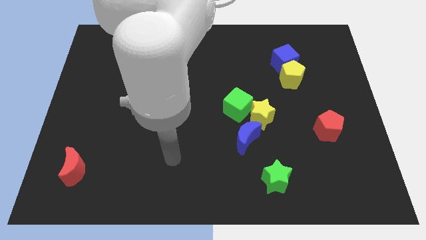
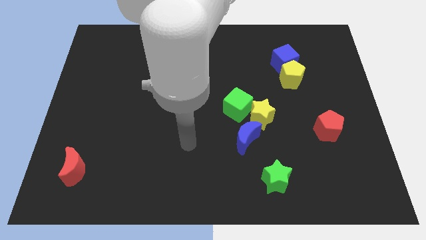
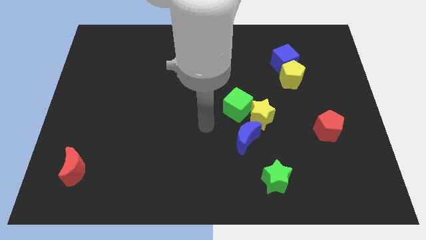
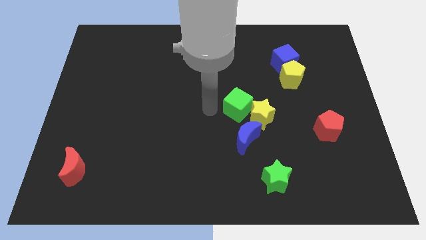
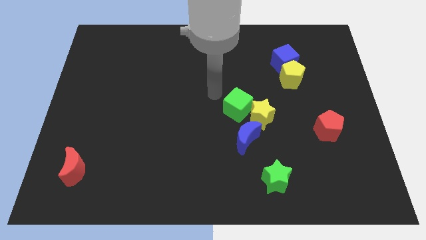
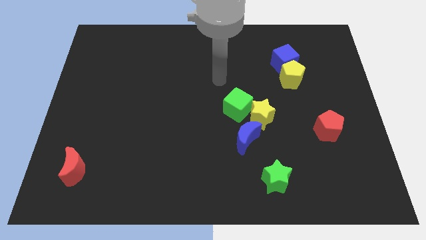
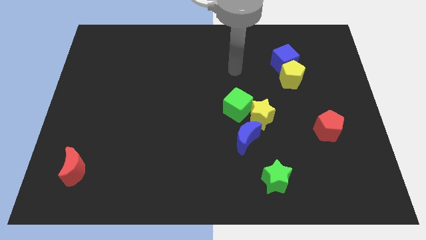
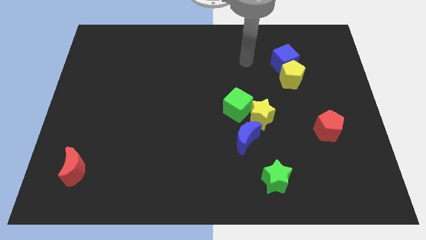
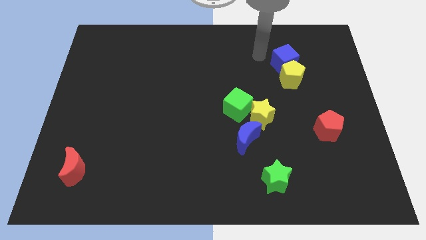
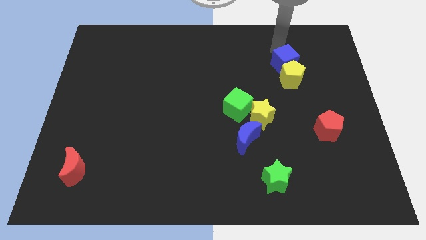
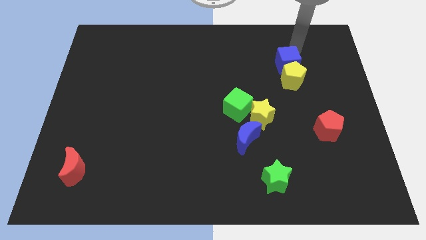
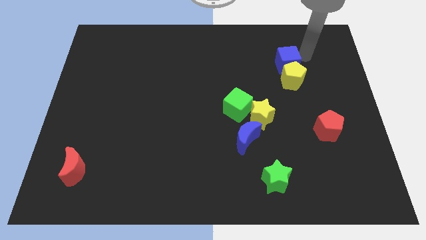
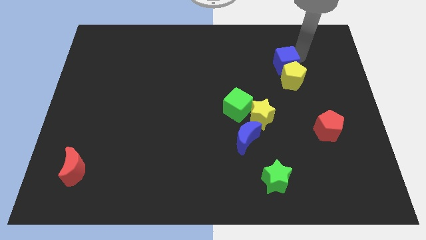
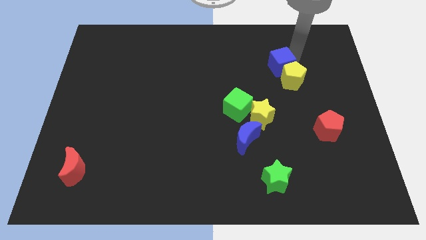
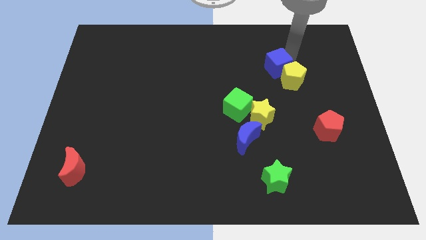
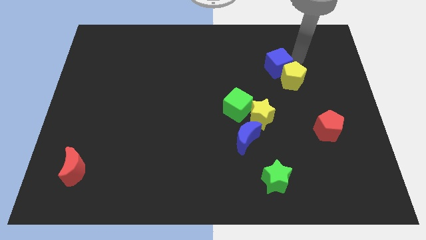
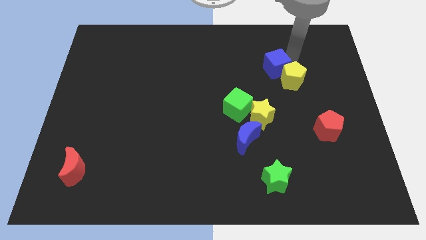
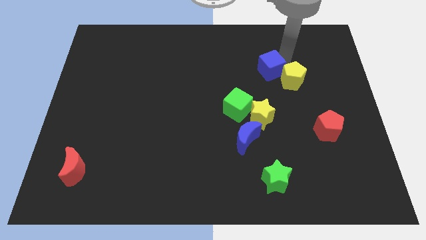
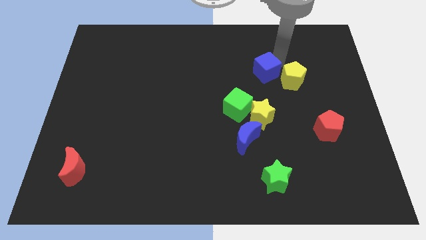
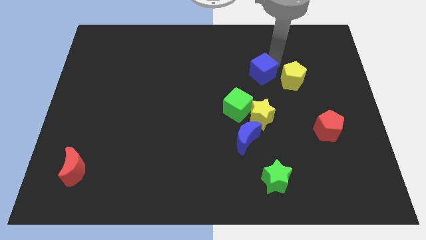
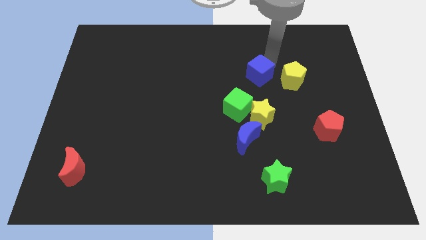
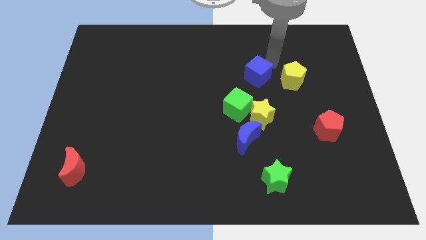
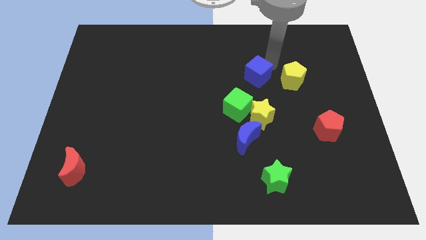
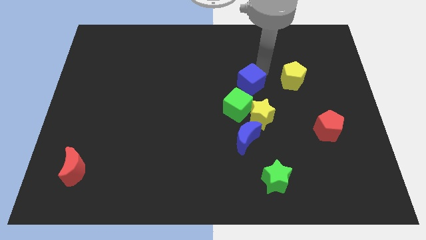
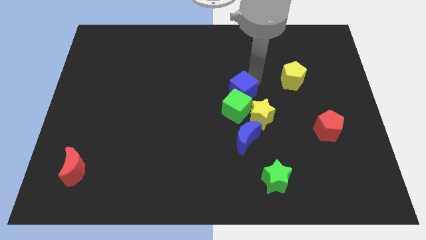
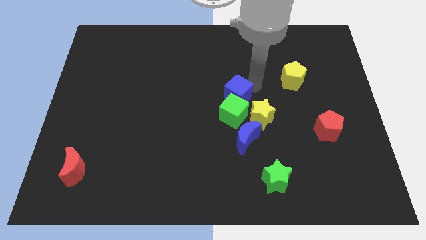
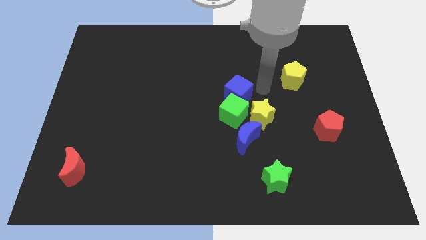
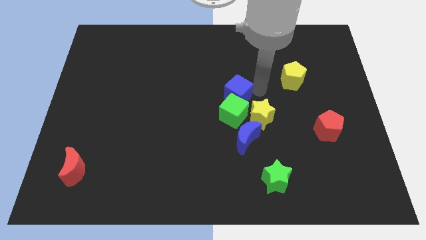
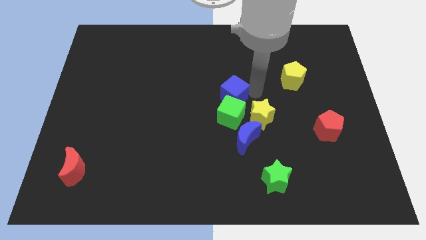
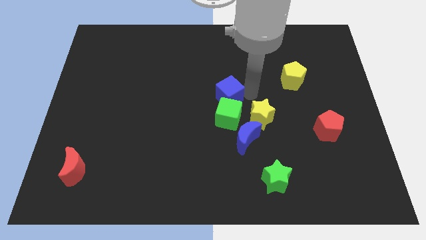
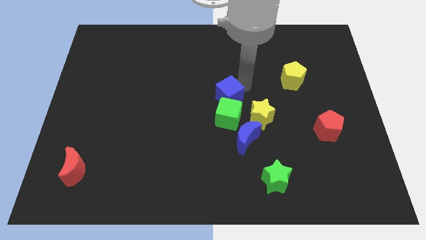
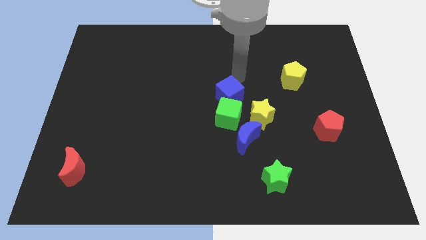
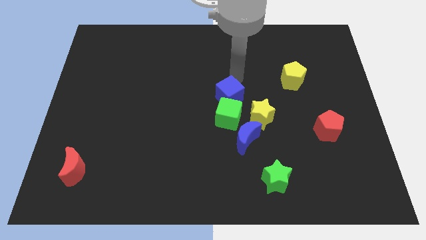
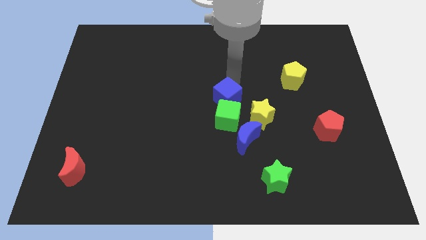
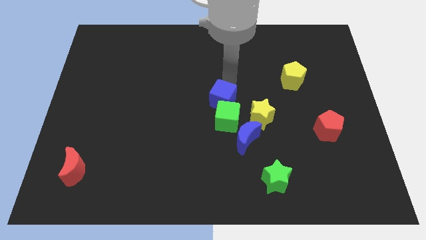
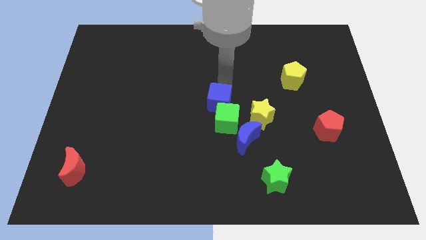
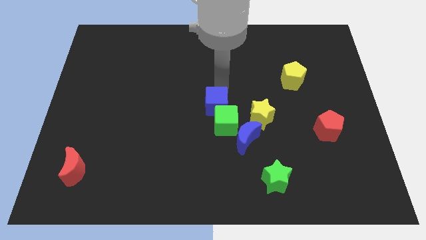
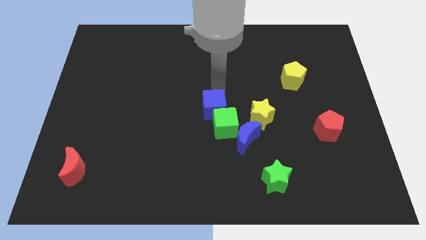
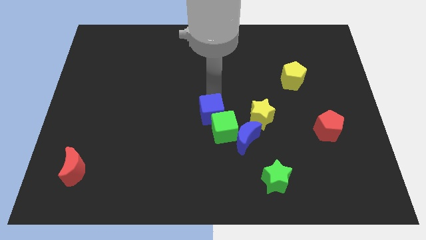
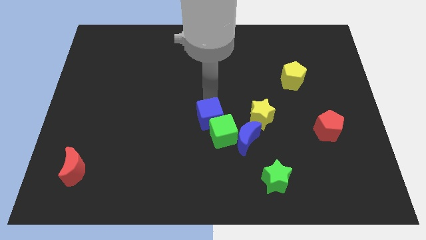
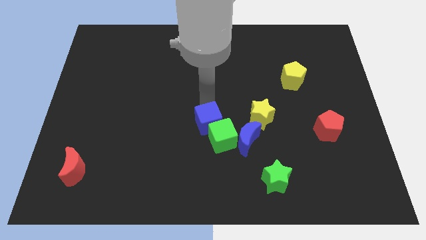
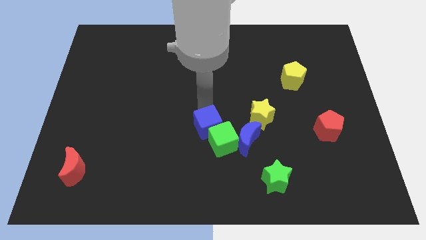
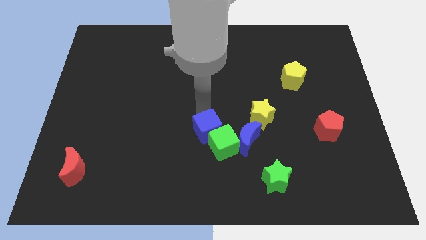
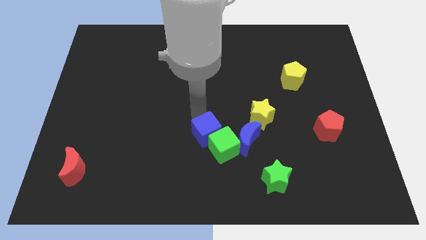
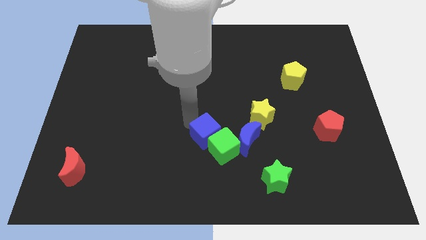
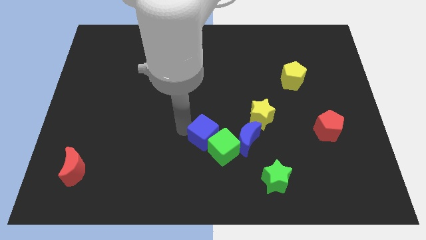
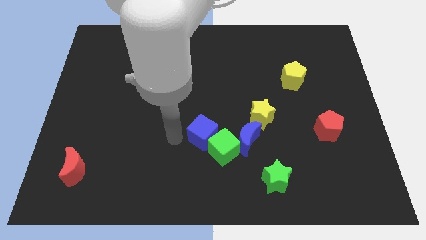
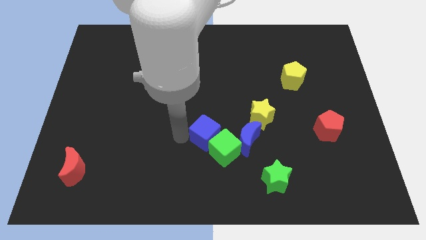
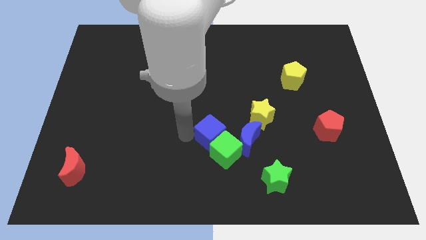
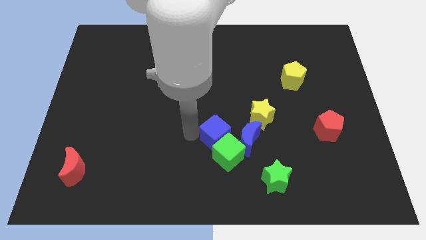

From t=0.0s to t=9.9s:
slide the blue cube diagonally down and to the left of the yellow star

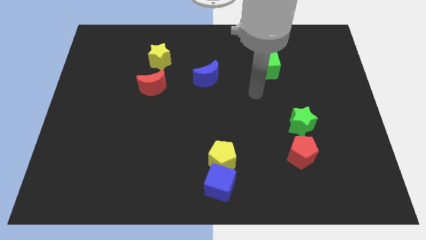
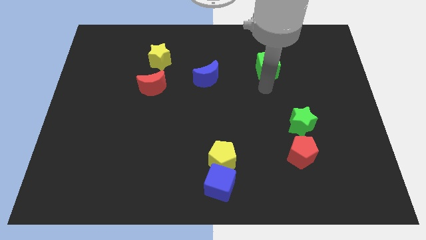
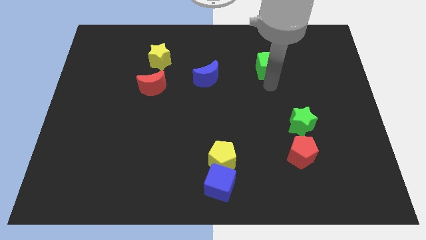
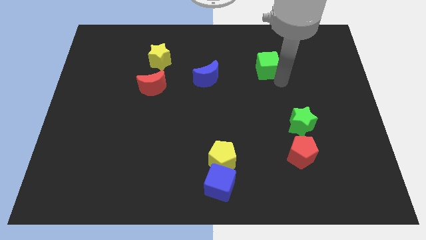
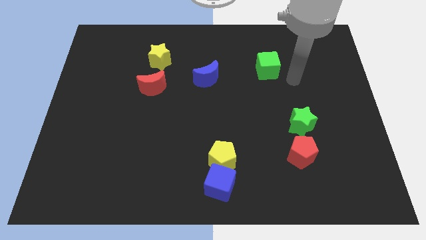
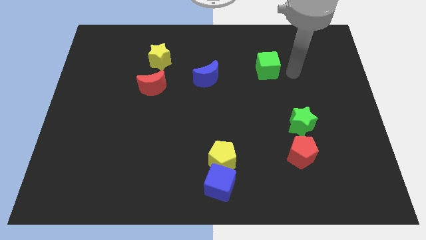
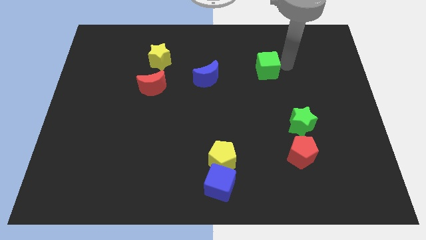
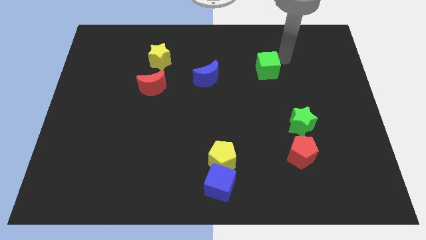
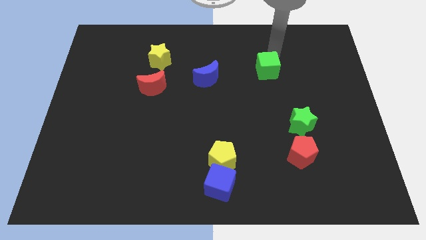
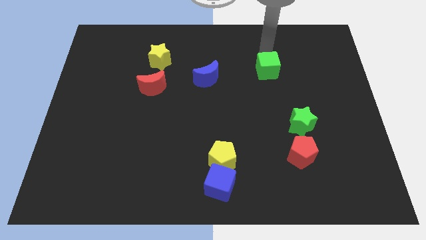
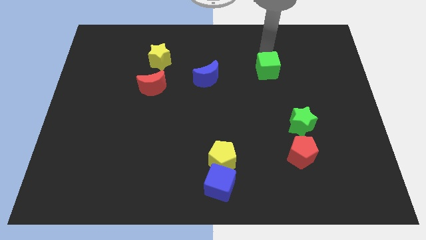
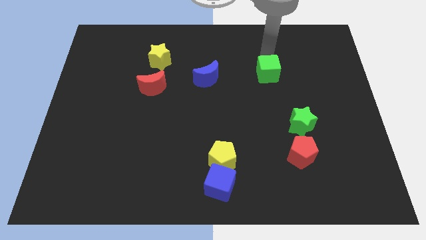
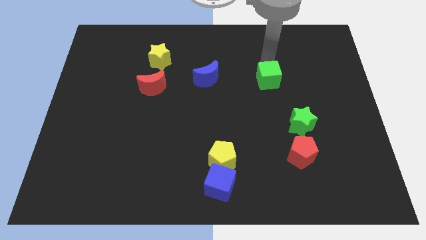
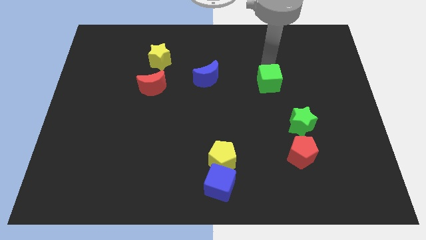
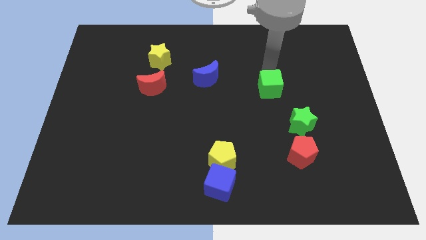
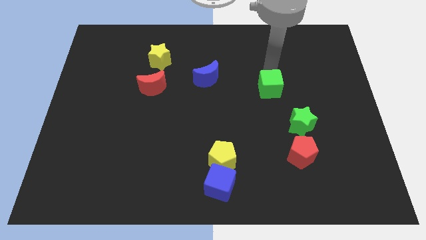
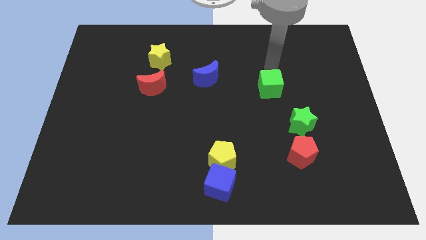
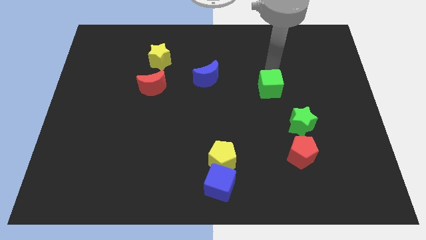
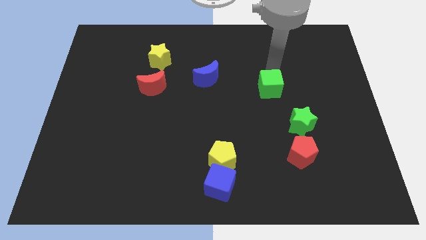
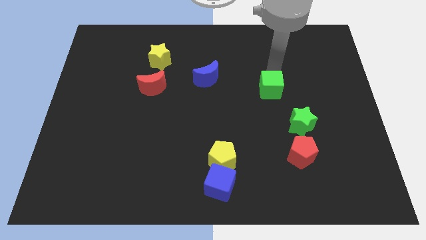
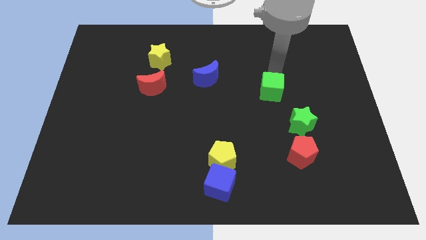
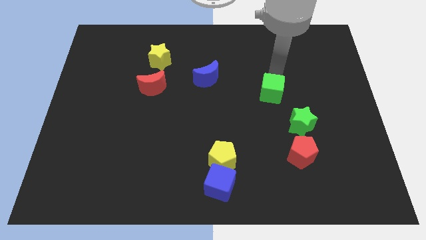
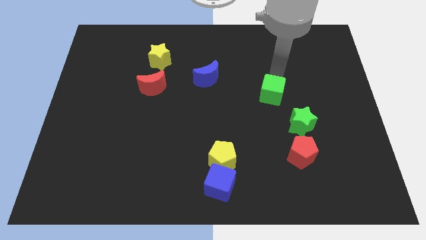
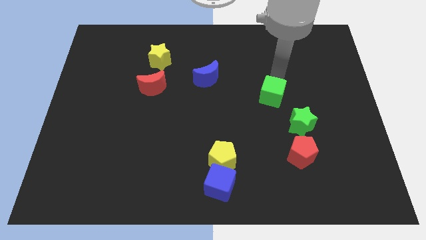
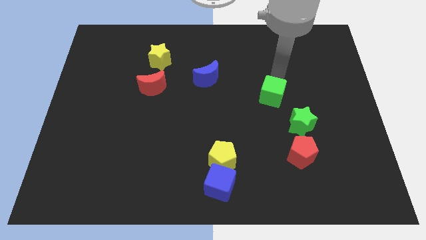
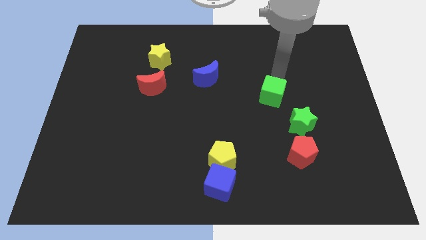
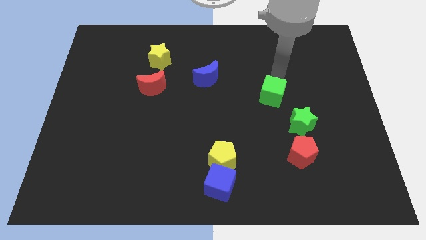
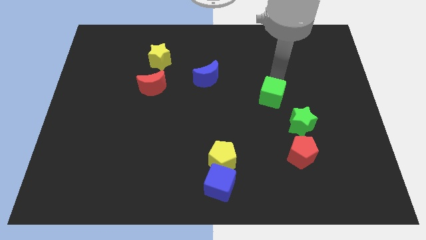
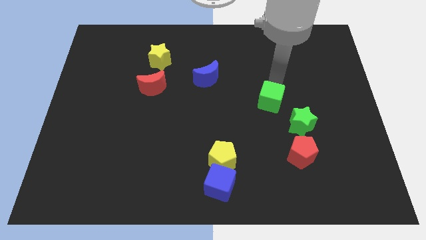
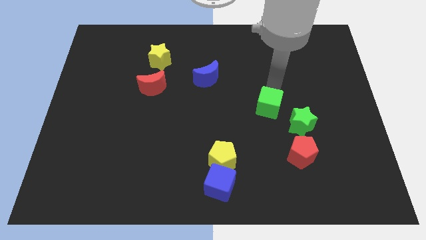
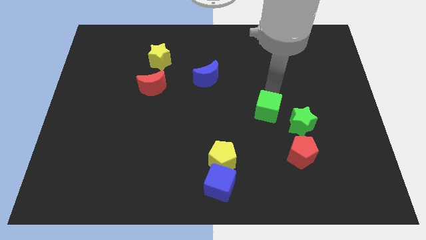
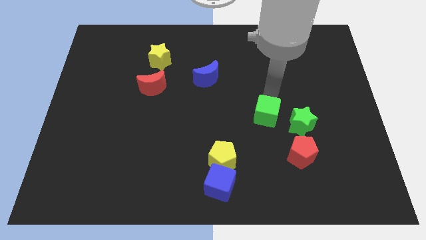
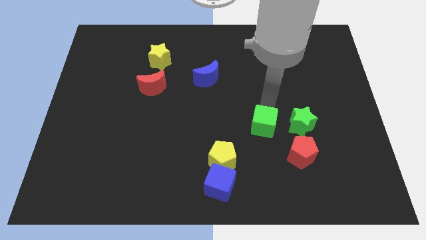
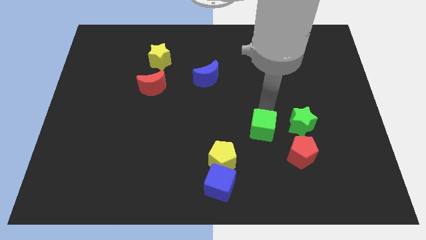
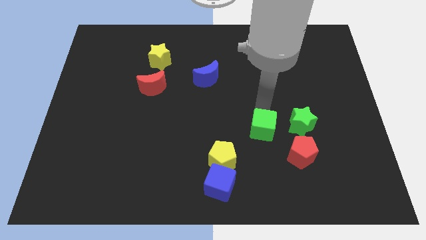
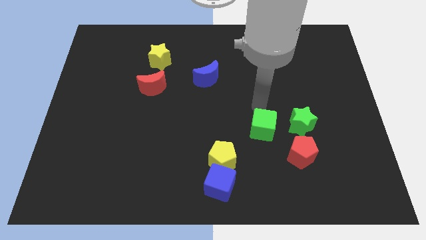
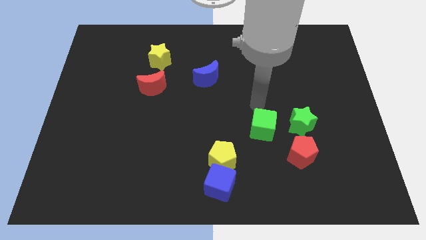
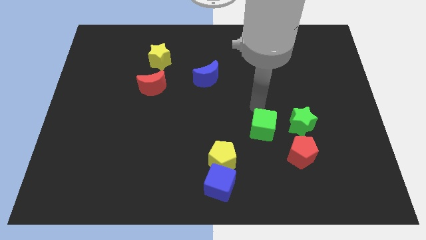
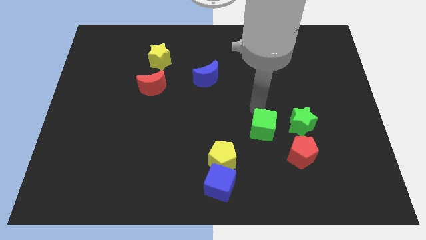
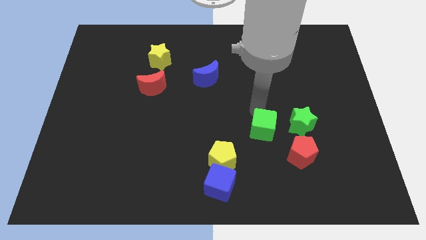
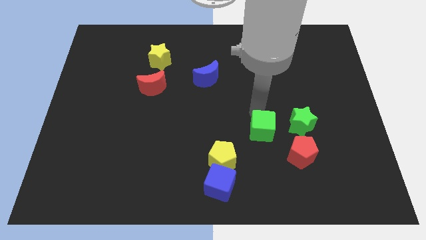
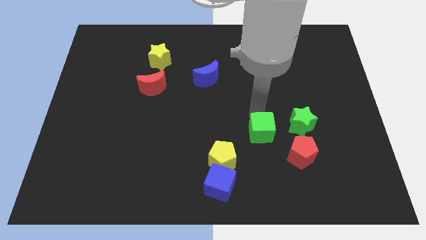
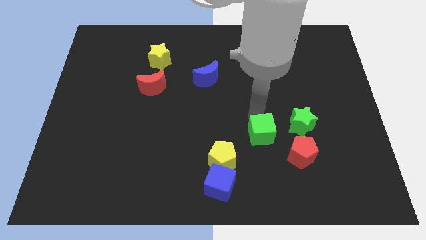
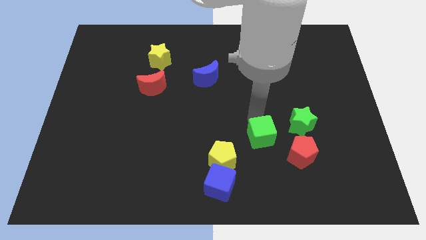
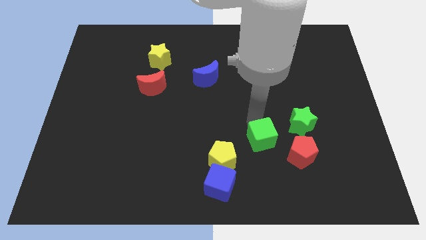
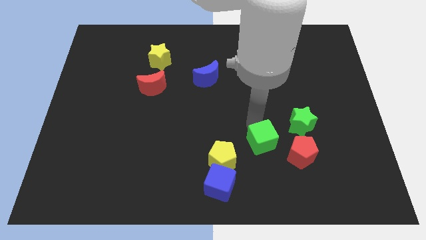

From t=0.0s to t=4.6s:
put the green cube just right of the yellow pentagon
